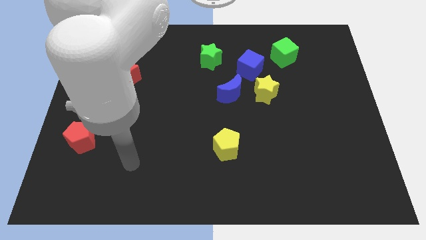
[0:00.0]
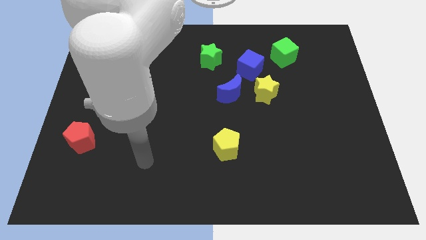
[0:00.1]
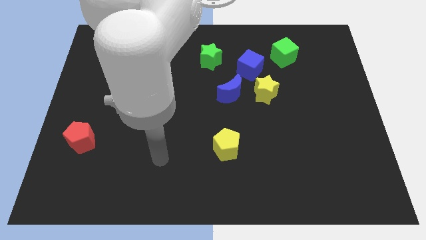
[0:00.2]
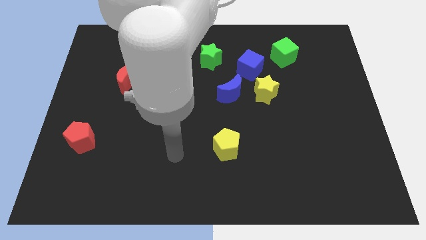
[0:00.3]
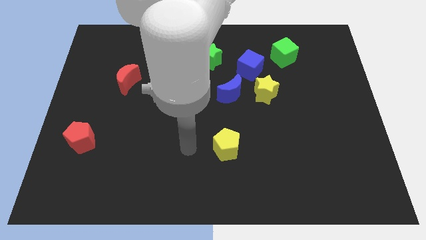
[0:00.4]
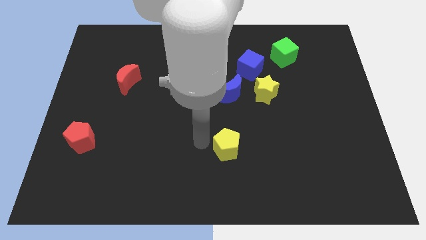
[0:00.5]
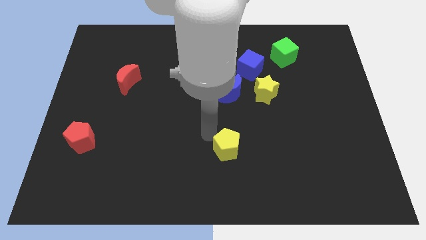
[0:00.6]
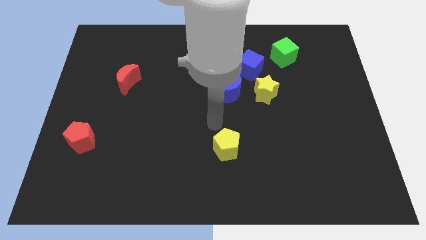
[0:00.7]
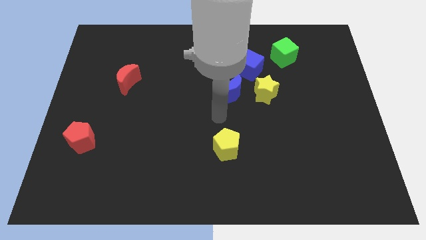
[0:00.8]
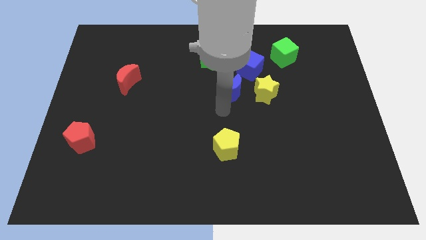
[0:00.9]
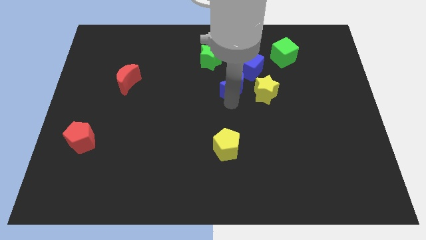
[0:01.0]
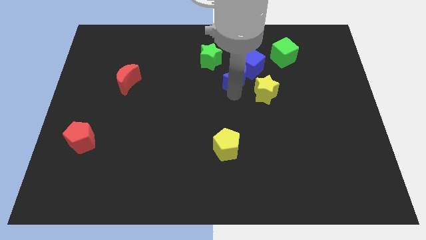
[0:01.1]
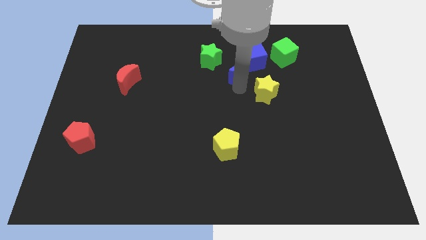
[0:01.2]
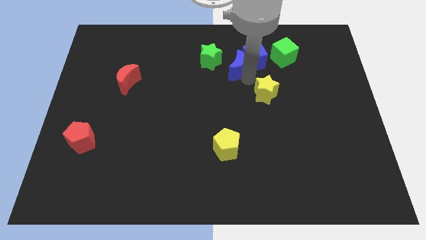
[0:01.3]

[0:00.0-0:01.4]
pull the yellow star apart from the blue moon and blue cube

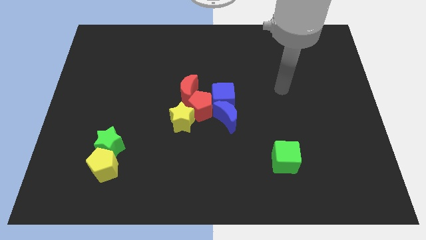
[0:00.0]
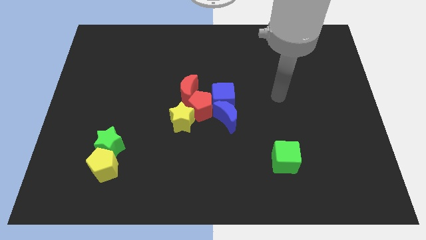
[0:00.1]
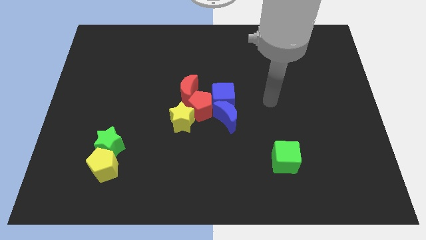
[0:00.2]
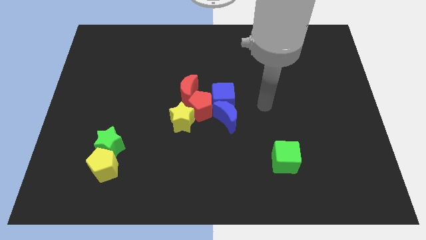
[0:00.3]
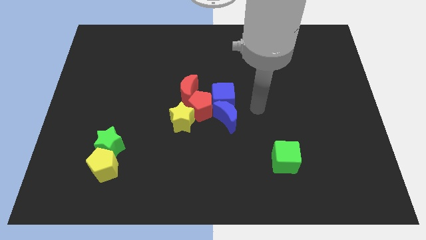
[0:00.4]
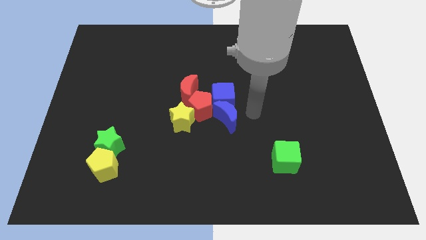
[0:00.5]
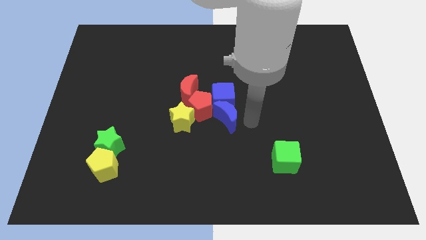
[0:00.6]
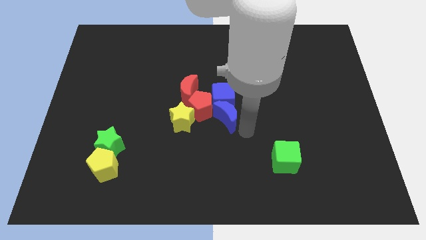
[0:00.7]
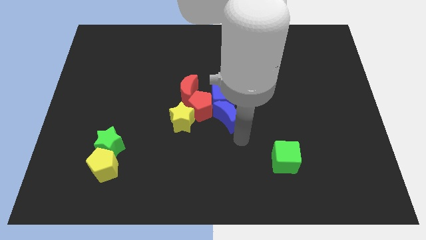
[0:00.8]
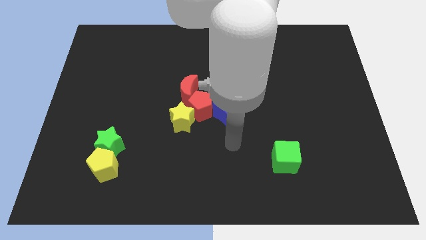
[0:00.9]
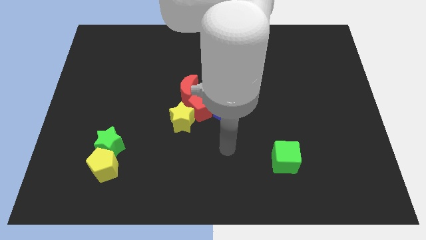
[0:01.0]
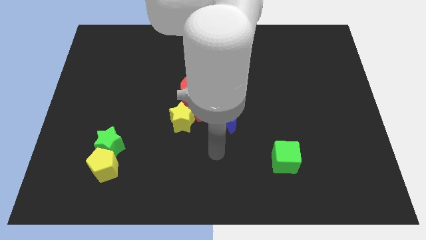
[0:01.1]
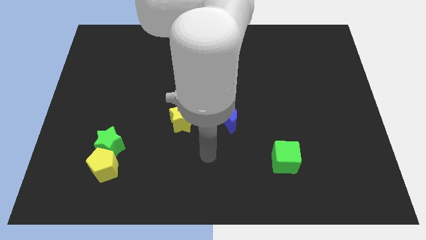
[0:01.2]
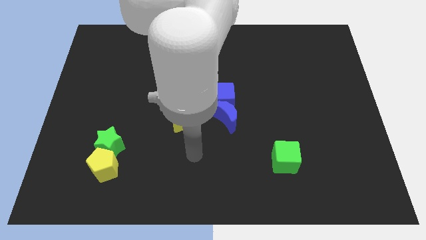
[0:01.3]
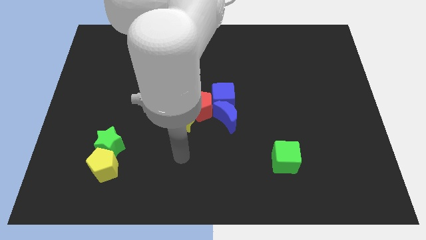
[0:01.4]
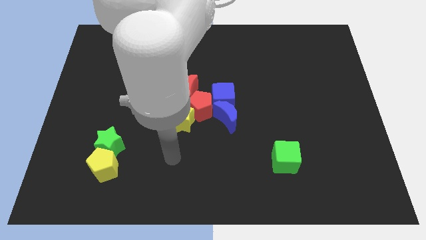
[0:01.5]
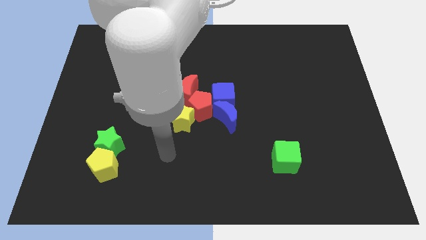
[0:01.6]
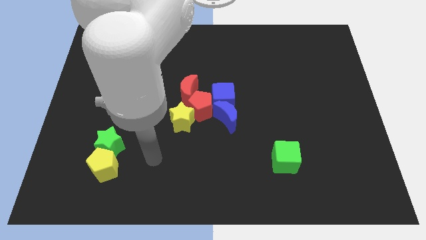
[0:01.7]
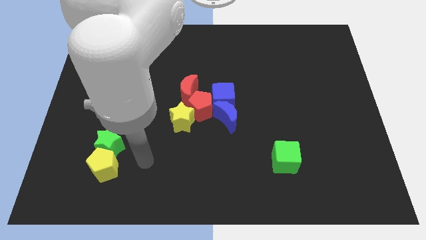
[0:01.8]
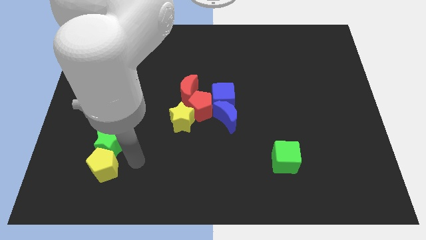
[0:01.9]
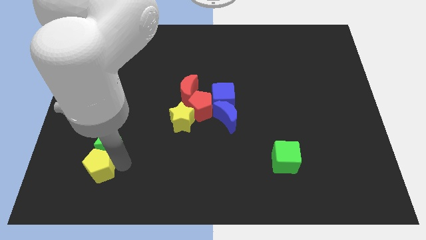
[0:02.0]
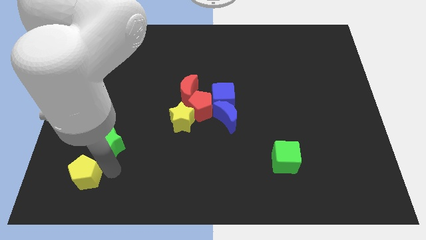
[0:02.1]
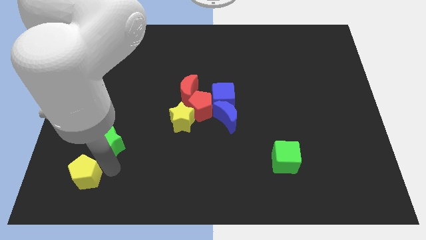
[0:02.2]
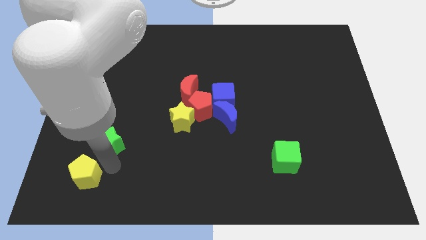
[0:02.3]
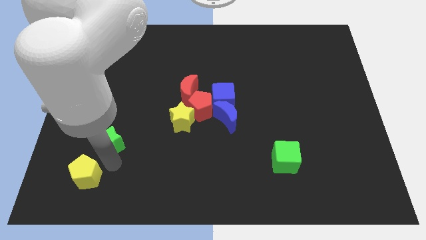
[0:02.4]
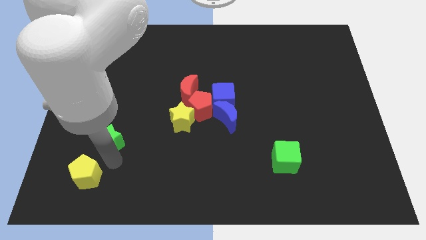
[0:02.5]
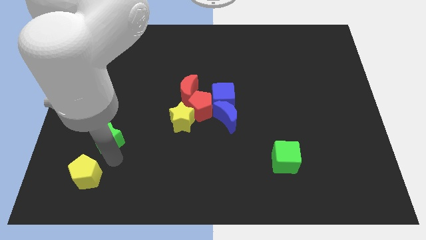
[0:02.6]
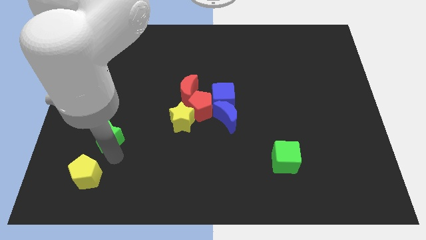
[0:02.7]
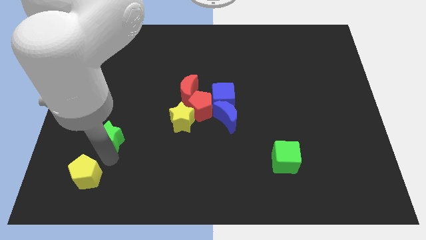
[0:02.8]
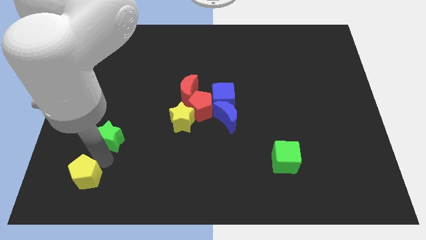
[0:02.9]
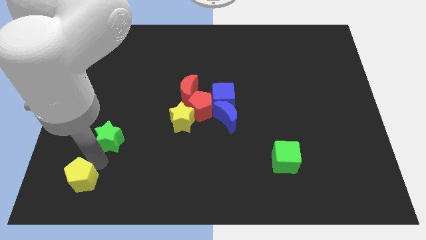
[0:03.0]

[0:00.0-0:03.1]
pull the green star apart from the yellow pentagon

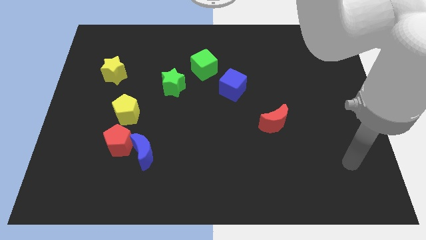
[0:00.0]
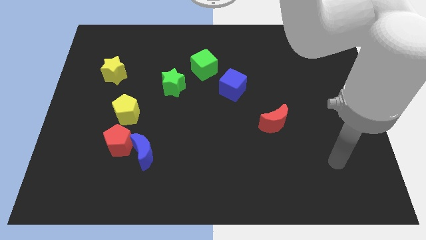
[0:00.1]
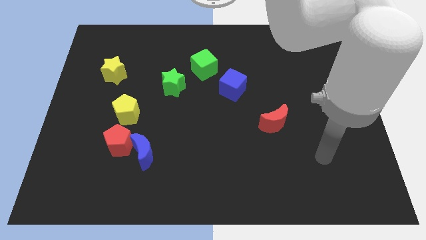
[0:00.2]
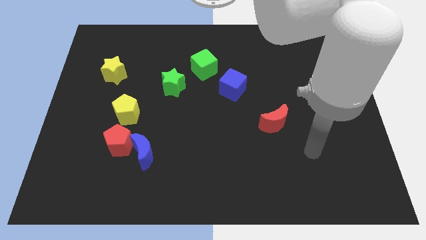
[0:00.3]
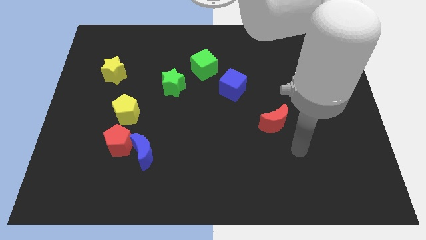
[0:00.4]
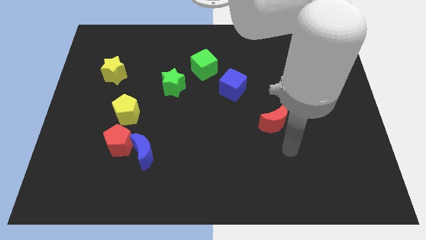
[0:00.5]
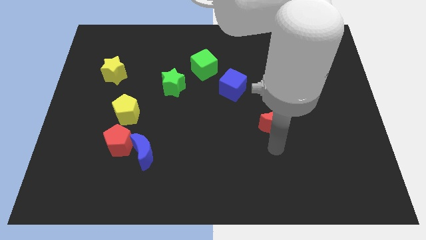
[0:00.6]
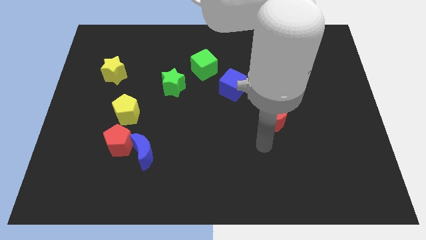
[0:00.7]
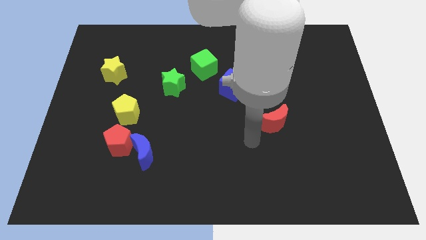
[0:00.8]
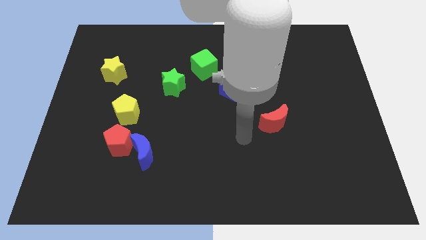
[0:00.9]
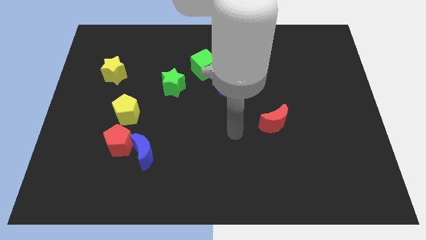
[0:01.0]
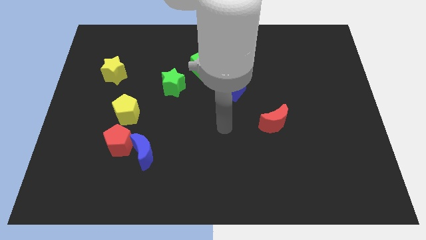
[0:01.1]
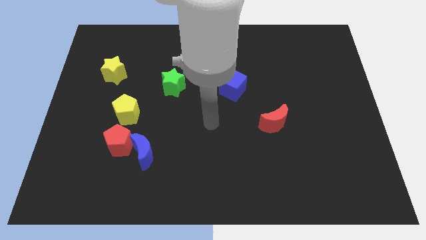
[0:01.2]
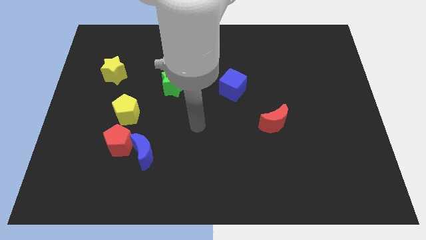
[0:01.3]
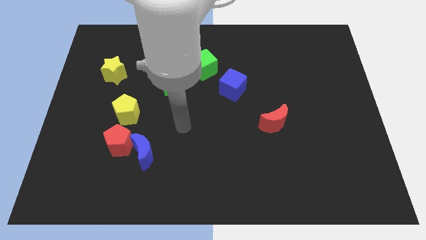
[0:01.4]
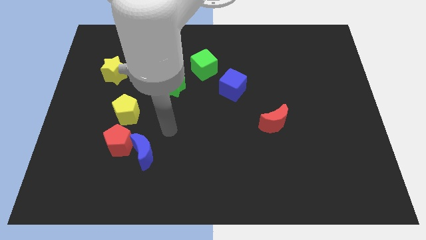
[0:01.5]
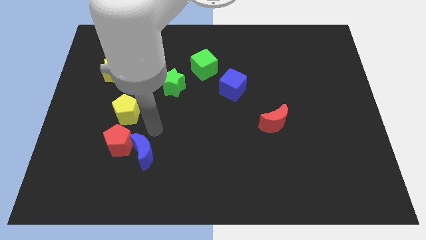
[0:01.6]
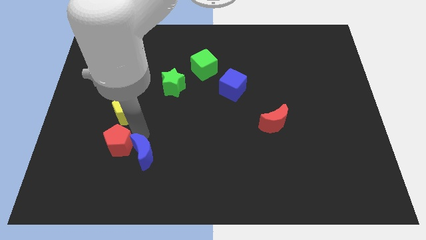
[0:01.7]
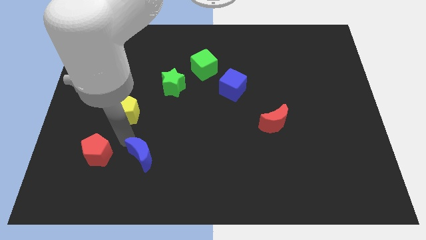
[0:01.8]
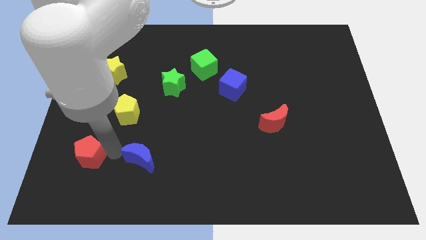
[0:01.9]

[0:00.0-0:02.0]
pull the blue moon apart from the red pentagon

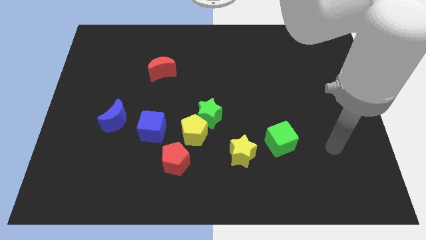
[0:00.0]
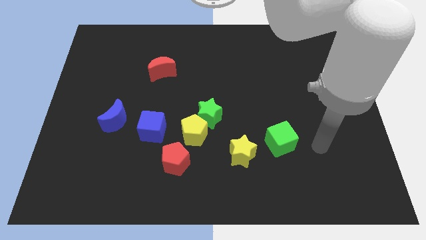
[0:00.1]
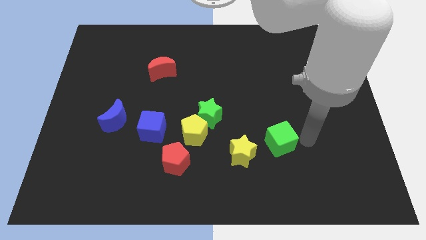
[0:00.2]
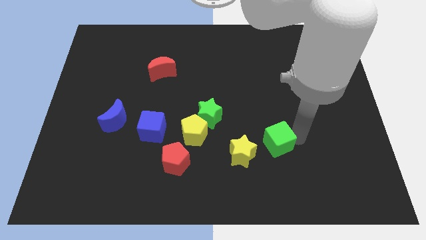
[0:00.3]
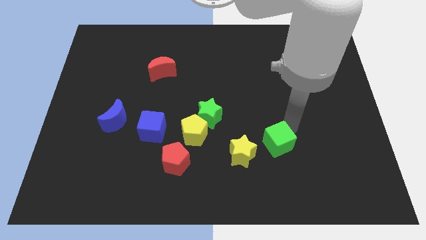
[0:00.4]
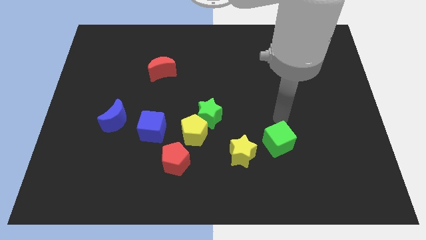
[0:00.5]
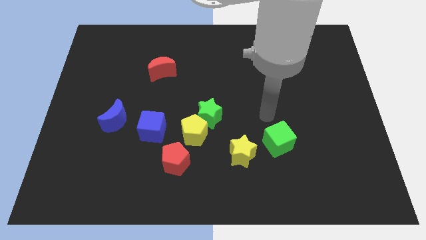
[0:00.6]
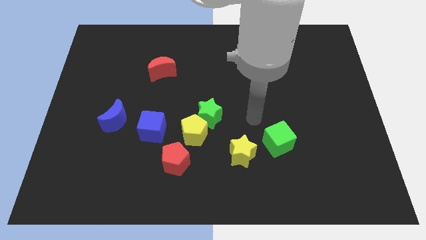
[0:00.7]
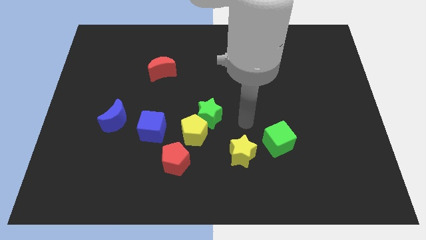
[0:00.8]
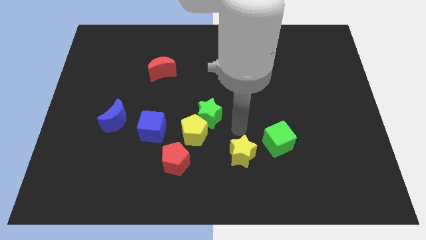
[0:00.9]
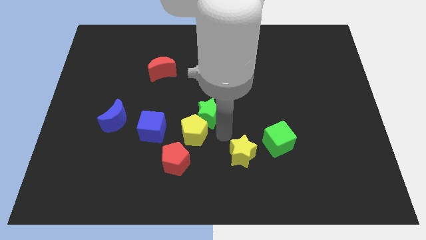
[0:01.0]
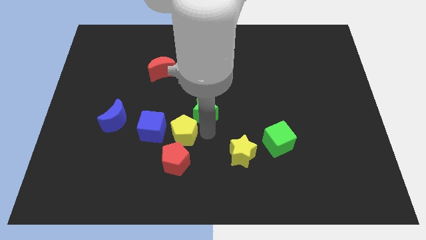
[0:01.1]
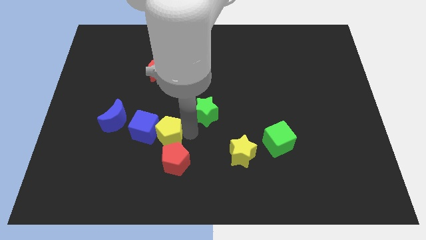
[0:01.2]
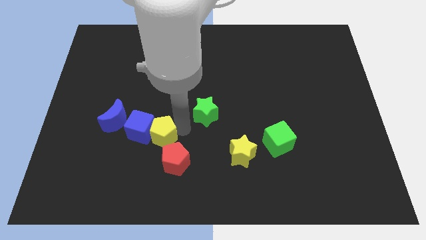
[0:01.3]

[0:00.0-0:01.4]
move the green star away from the yellow pentagon

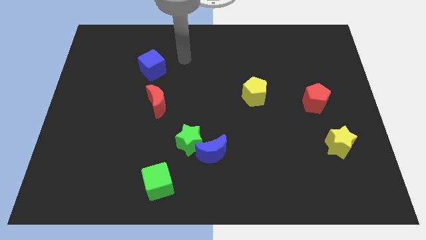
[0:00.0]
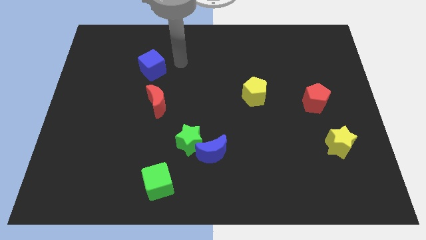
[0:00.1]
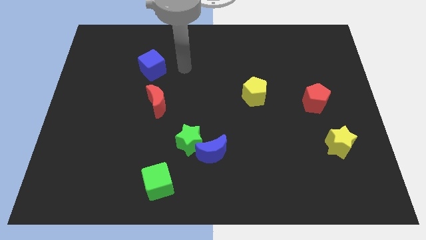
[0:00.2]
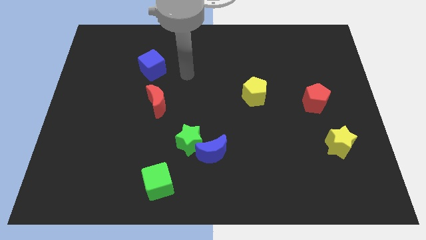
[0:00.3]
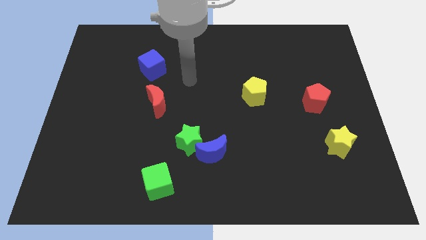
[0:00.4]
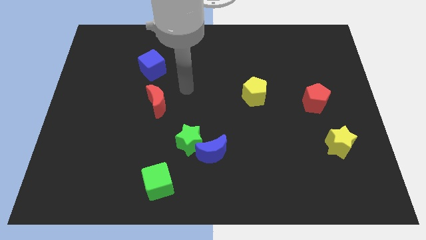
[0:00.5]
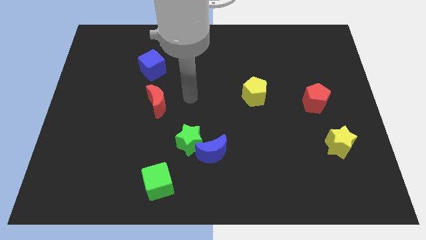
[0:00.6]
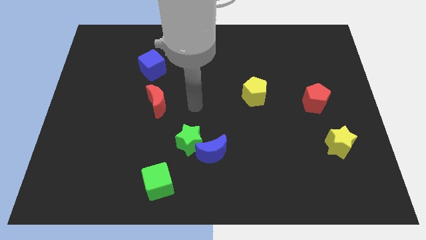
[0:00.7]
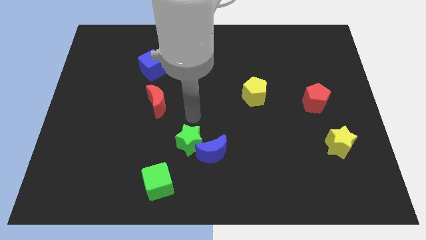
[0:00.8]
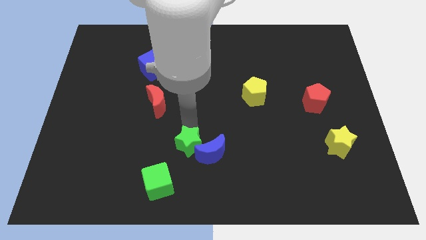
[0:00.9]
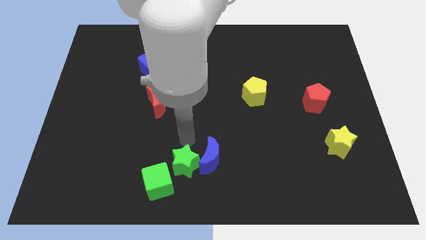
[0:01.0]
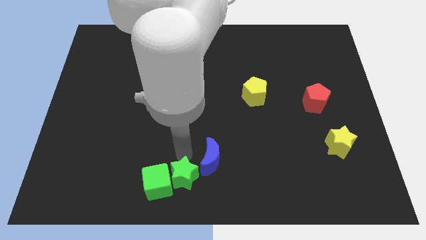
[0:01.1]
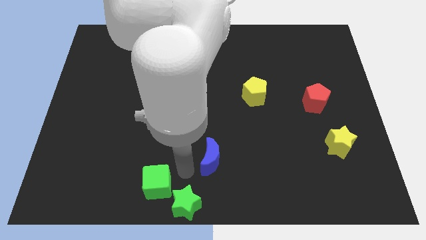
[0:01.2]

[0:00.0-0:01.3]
move the blue moon away from the green star

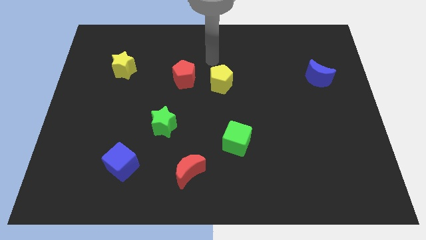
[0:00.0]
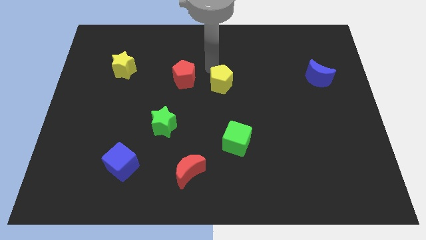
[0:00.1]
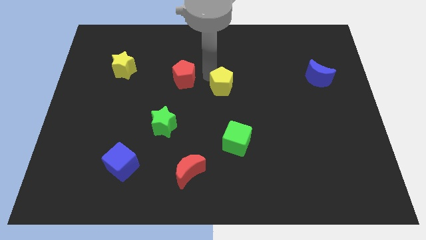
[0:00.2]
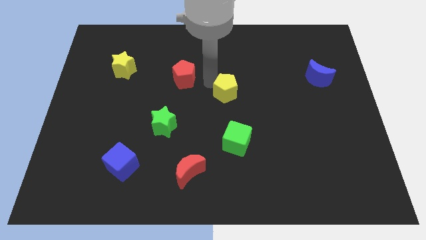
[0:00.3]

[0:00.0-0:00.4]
pull the red pentagon apart from the yellow pentagon
